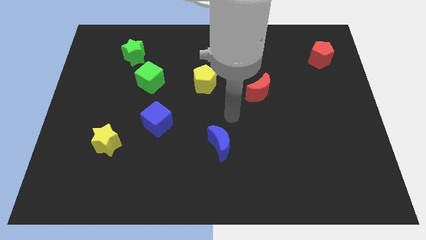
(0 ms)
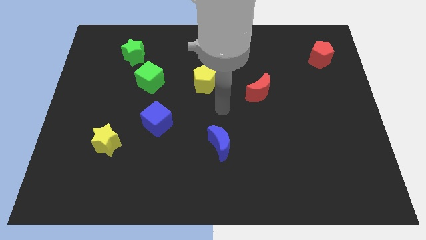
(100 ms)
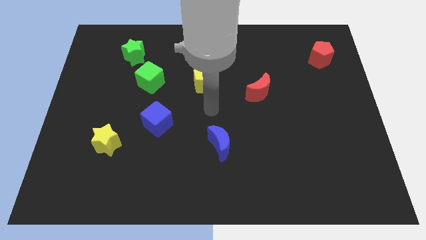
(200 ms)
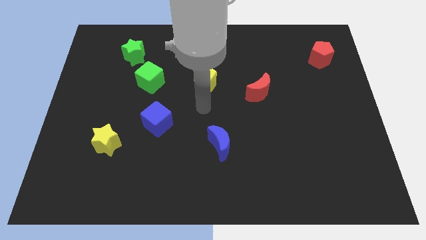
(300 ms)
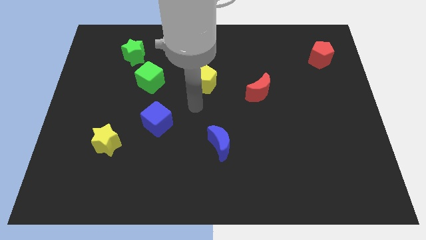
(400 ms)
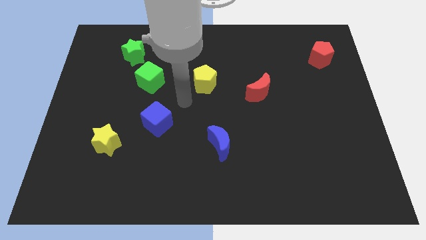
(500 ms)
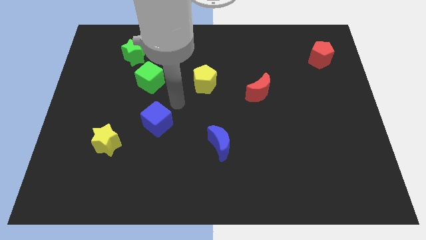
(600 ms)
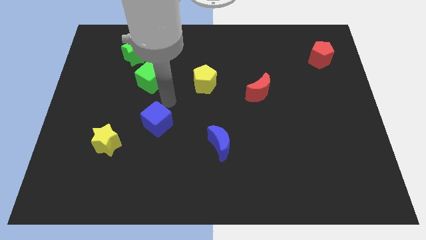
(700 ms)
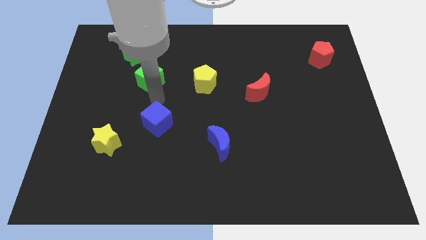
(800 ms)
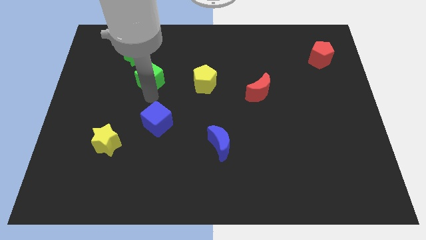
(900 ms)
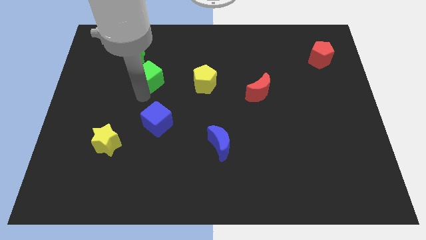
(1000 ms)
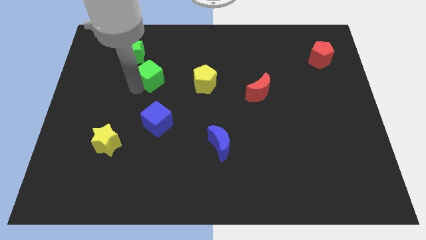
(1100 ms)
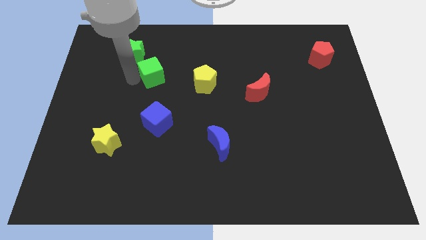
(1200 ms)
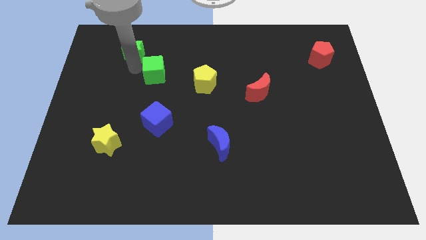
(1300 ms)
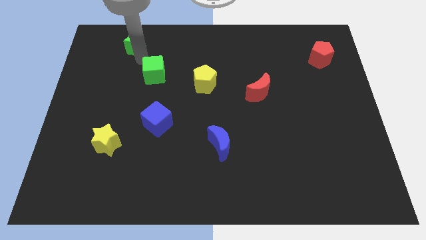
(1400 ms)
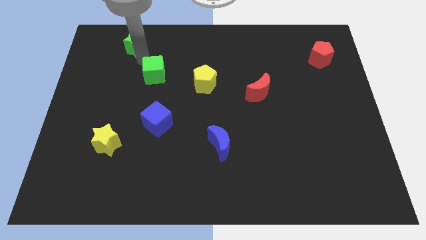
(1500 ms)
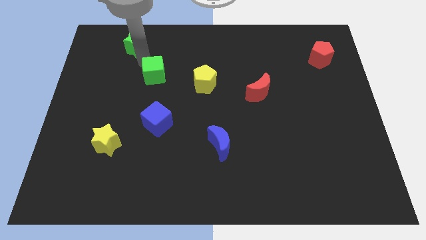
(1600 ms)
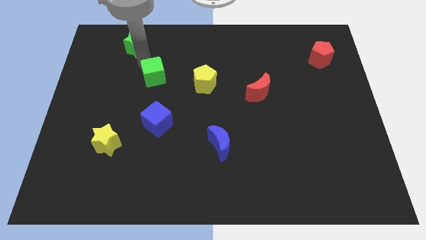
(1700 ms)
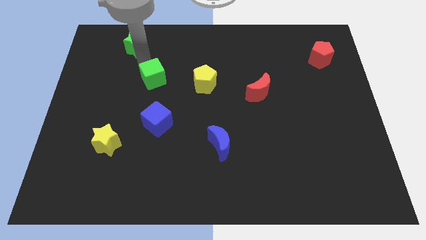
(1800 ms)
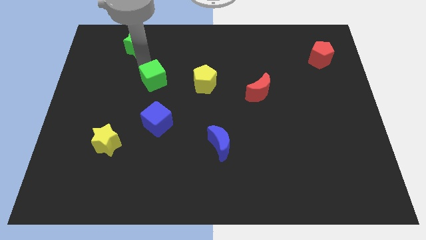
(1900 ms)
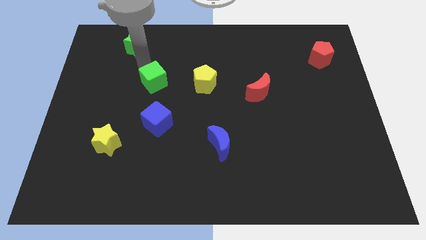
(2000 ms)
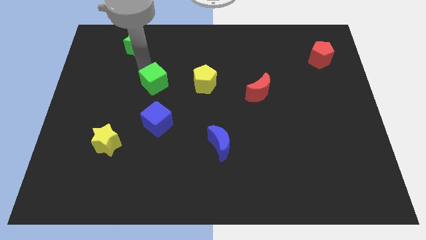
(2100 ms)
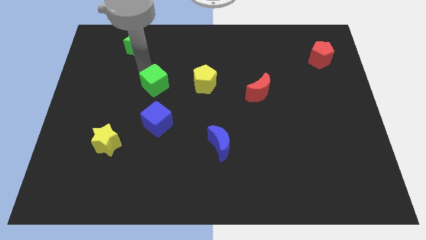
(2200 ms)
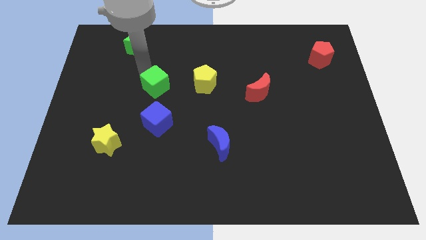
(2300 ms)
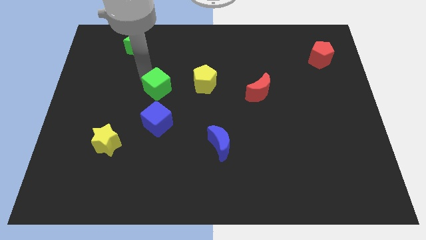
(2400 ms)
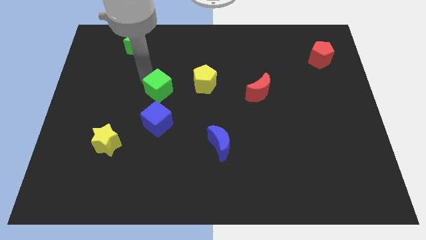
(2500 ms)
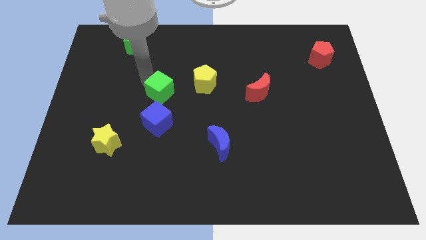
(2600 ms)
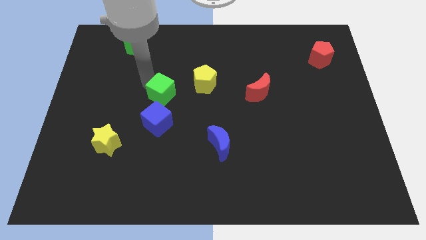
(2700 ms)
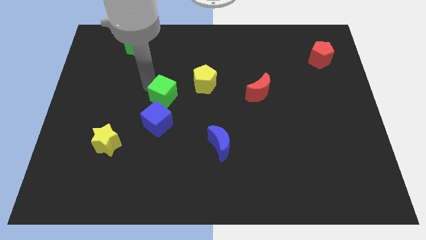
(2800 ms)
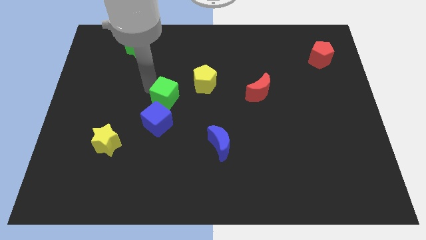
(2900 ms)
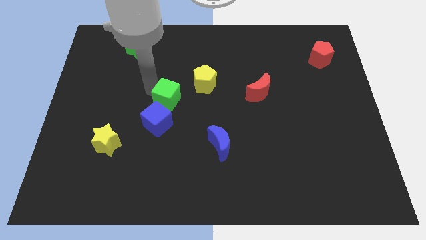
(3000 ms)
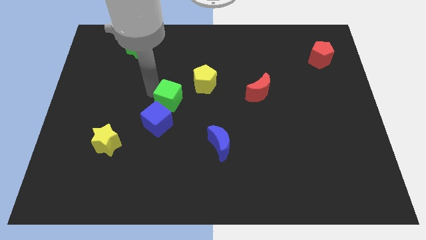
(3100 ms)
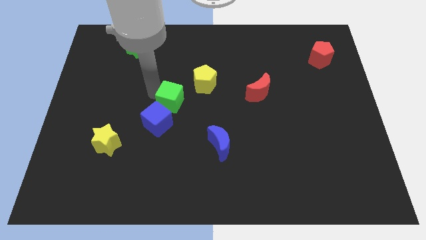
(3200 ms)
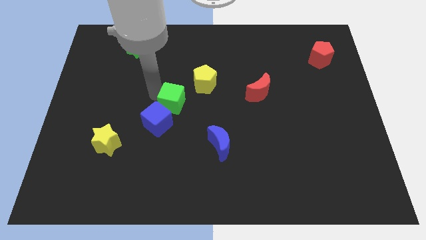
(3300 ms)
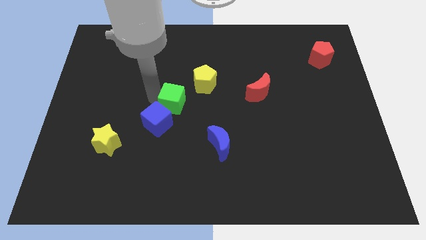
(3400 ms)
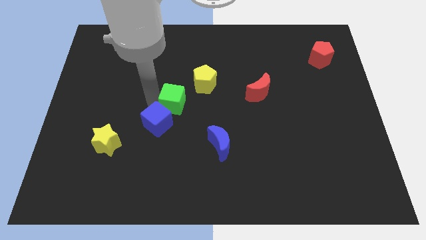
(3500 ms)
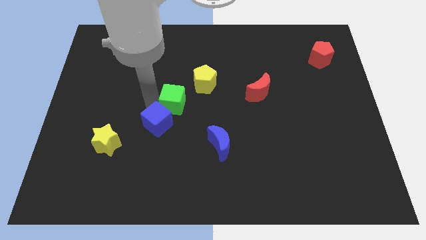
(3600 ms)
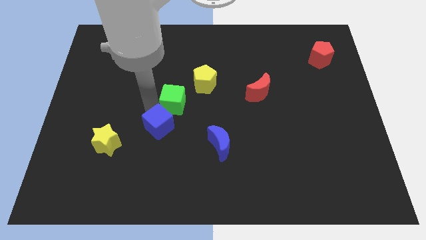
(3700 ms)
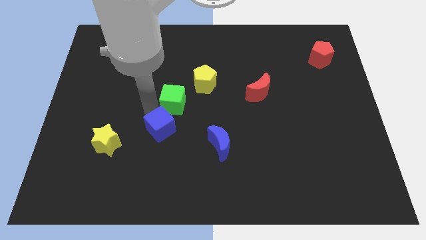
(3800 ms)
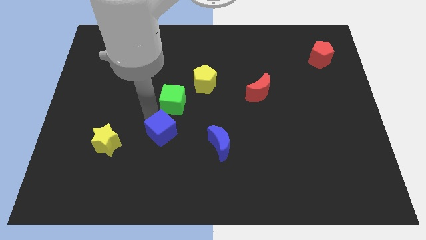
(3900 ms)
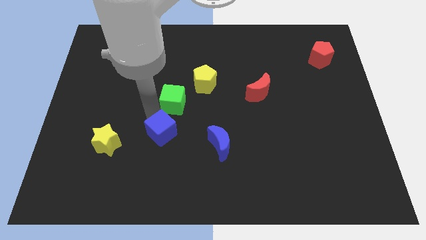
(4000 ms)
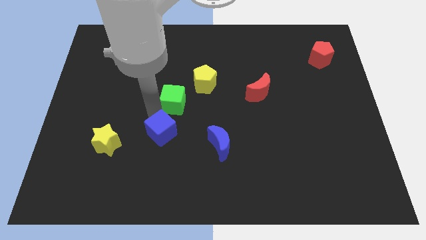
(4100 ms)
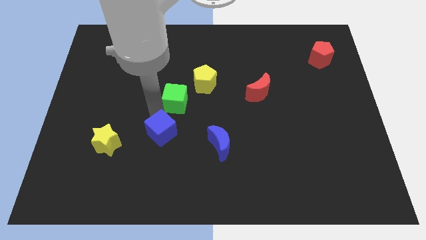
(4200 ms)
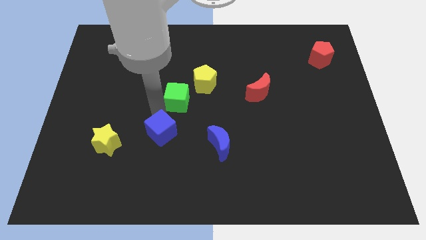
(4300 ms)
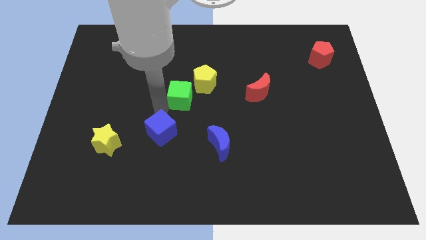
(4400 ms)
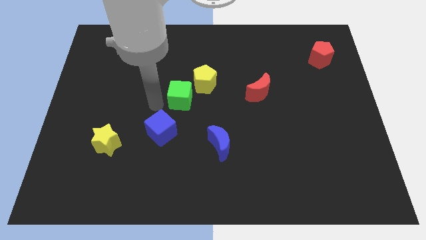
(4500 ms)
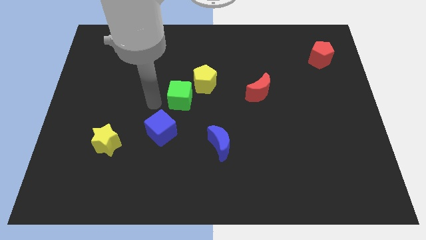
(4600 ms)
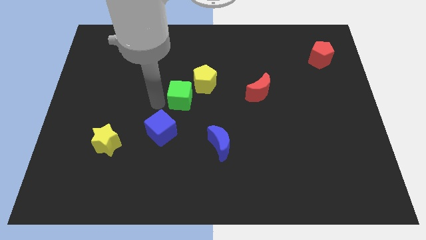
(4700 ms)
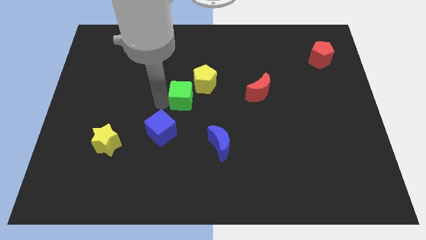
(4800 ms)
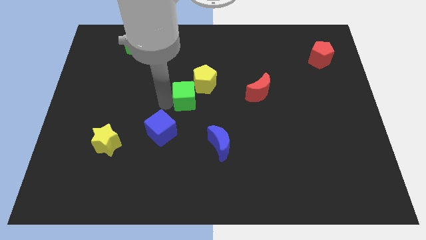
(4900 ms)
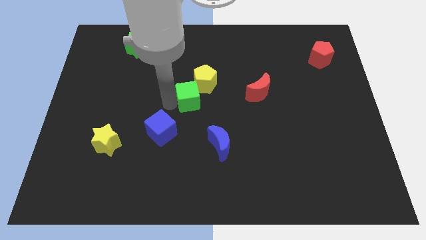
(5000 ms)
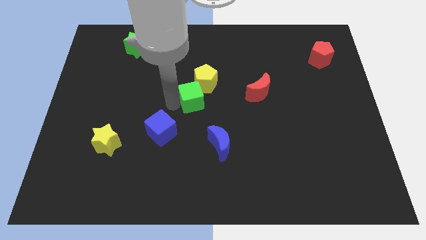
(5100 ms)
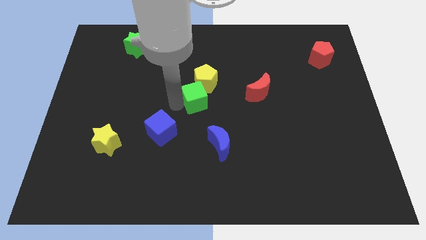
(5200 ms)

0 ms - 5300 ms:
slide the green cube left of the red moon

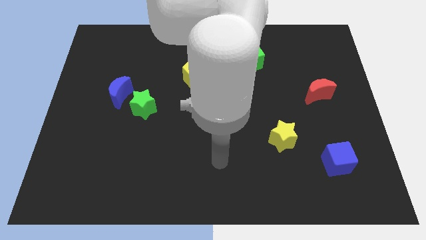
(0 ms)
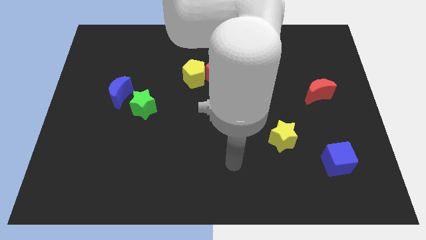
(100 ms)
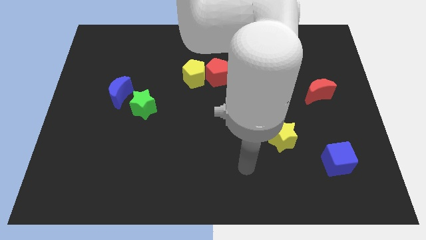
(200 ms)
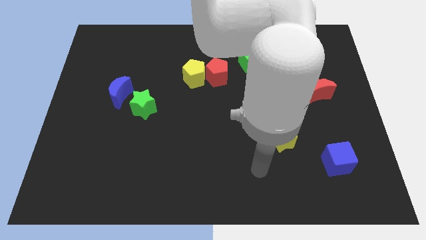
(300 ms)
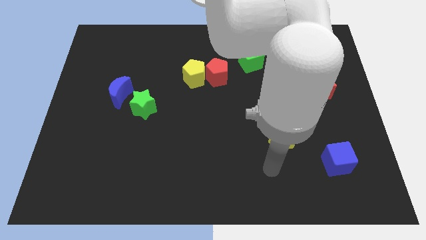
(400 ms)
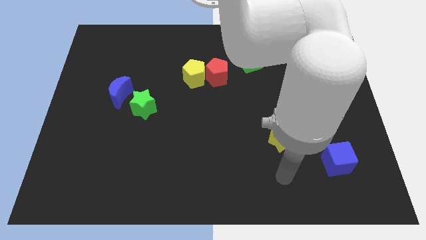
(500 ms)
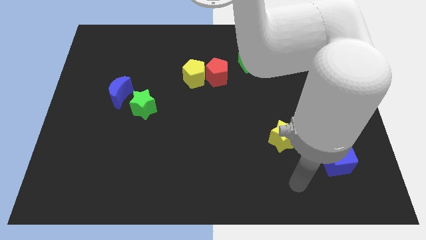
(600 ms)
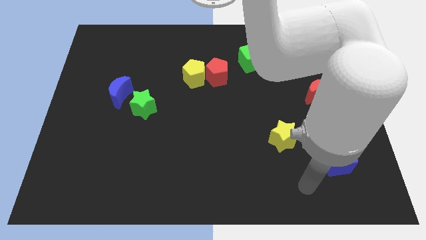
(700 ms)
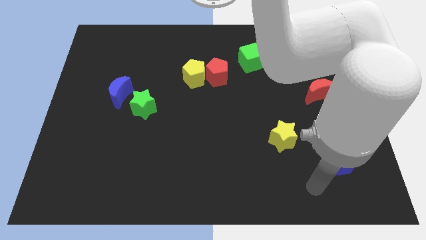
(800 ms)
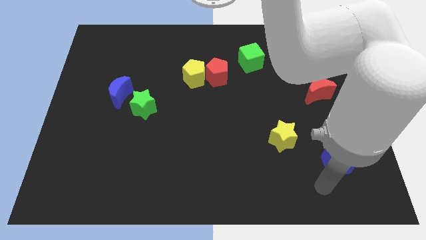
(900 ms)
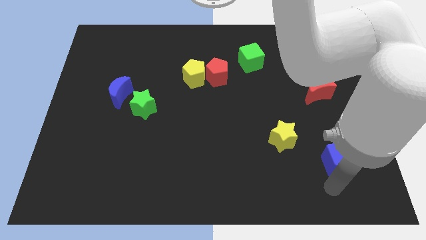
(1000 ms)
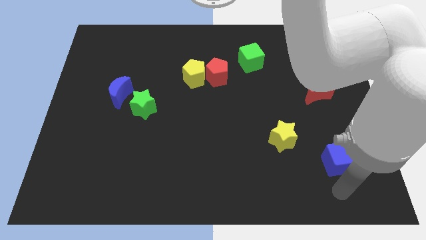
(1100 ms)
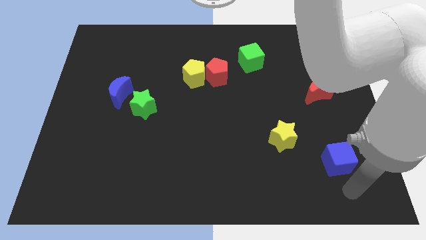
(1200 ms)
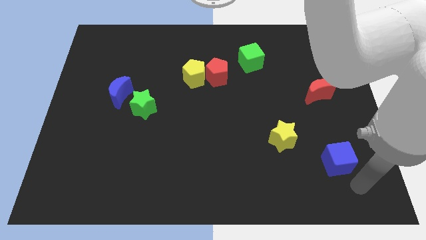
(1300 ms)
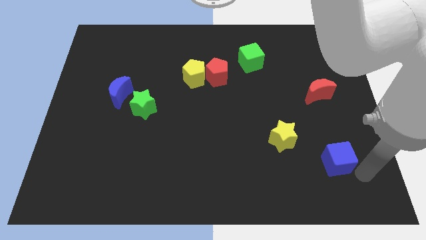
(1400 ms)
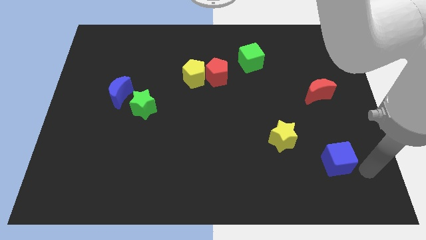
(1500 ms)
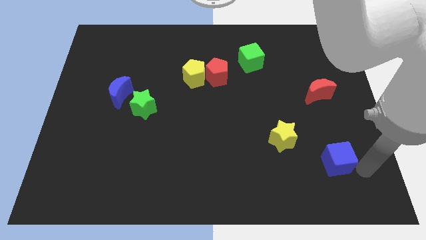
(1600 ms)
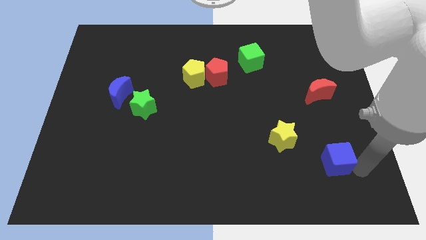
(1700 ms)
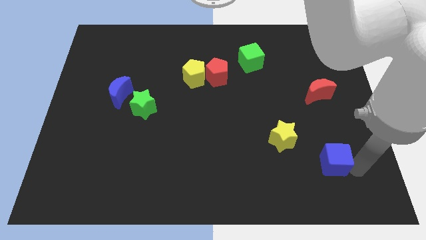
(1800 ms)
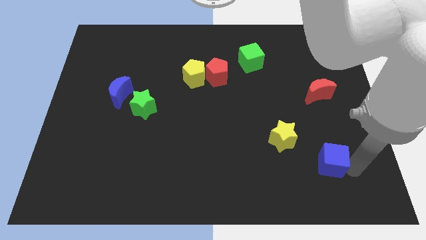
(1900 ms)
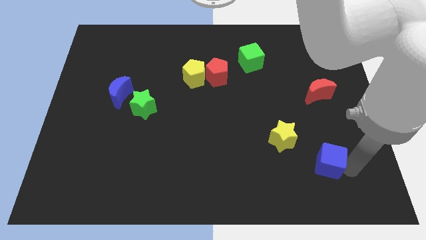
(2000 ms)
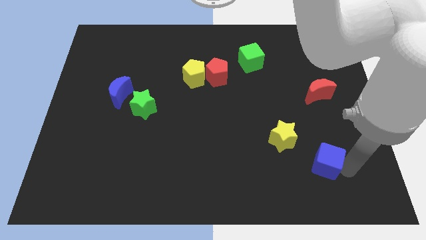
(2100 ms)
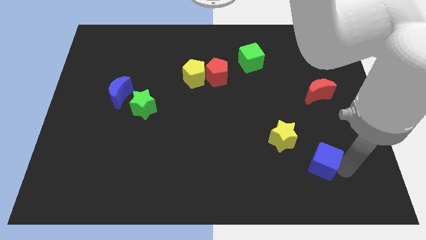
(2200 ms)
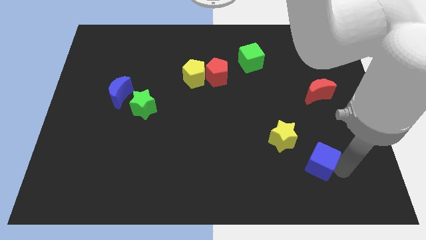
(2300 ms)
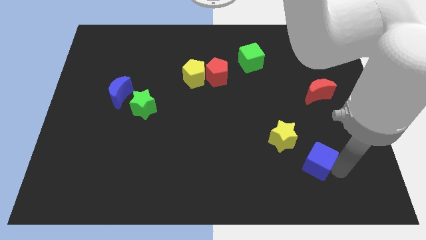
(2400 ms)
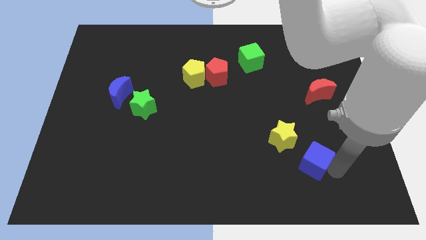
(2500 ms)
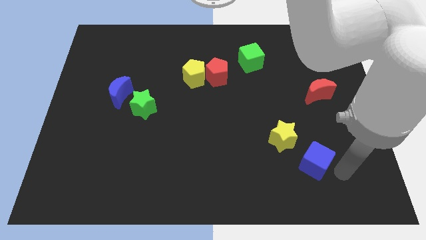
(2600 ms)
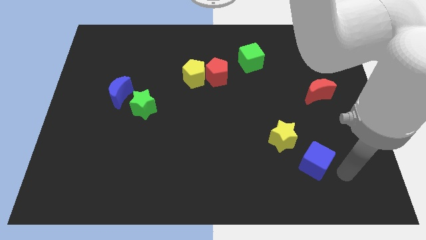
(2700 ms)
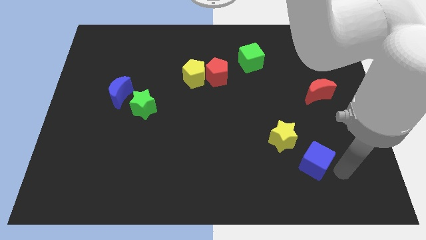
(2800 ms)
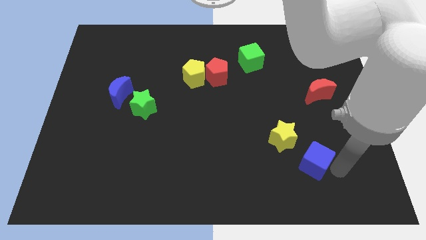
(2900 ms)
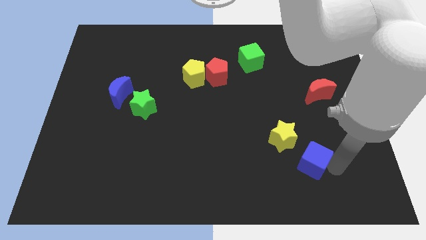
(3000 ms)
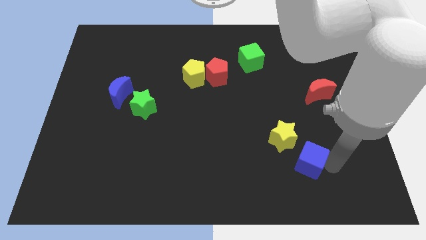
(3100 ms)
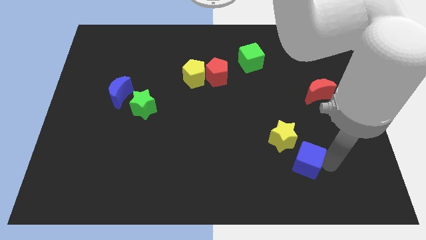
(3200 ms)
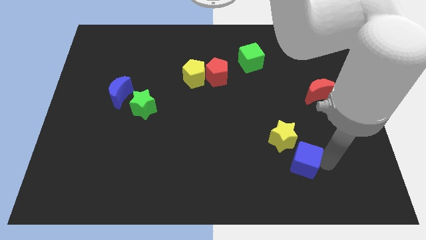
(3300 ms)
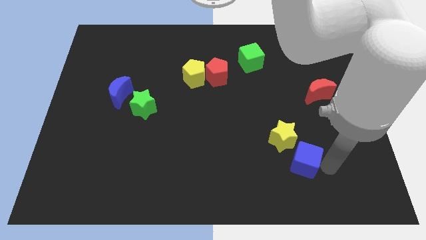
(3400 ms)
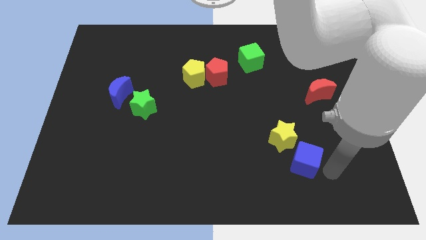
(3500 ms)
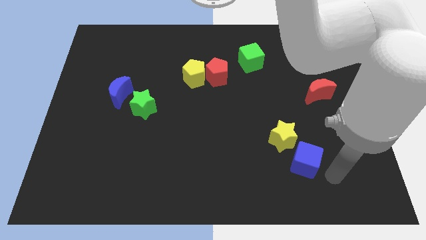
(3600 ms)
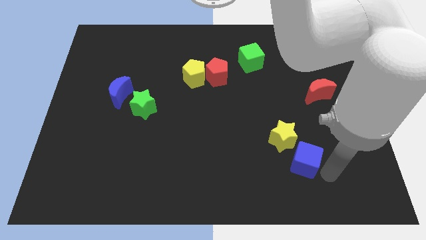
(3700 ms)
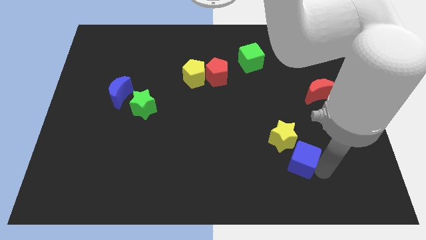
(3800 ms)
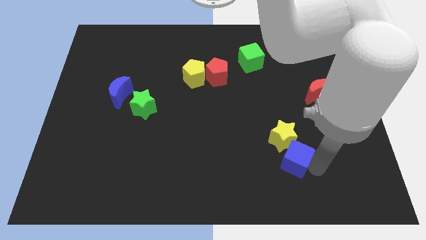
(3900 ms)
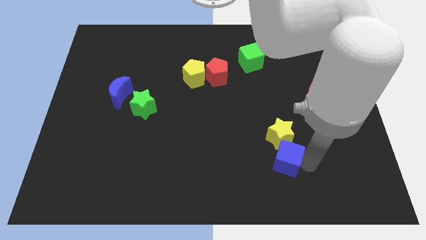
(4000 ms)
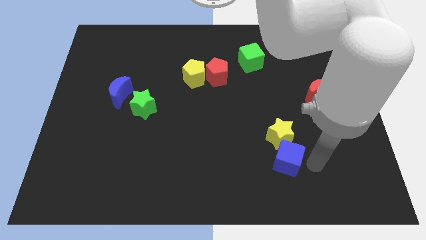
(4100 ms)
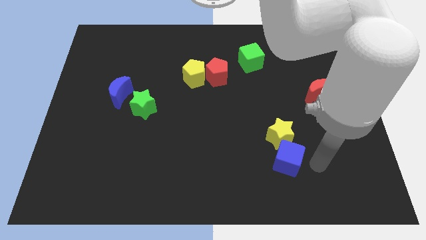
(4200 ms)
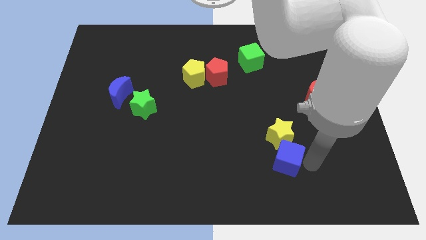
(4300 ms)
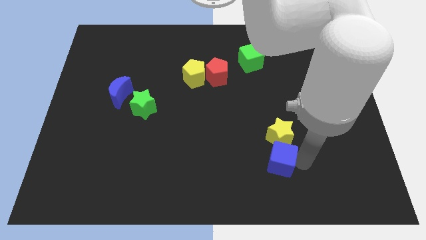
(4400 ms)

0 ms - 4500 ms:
move the blue cube diagonally down and to the left of the yellow star
